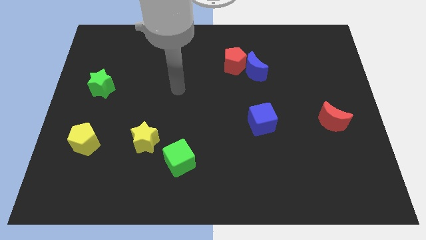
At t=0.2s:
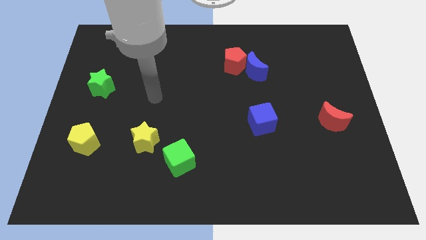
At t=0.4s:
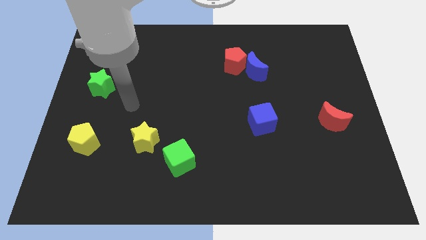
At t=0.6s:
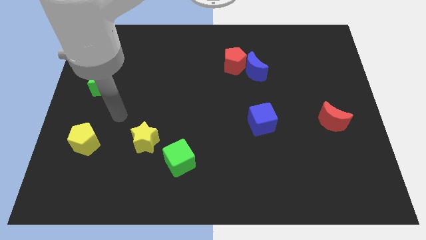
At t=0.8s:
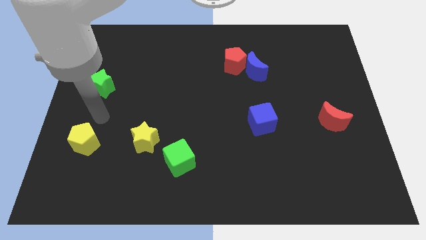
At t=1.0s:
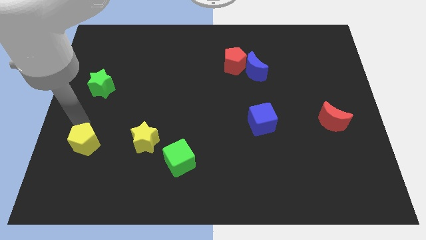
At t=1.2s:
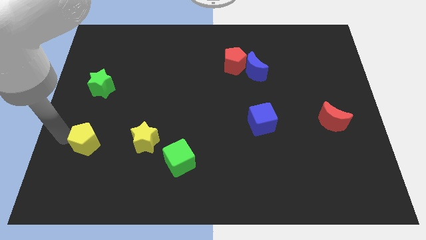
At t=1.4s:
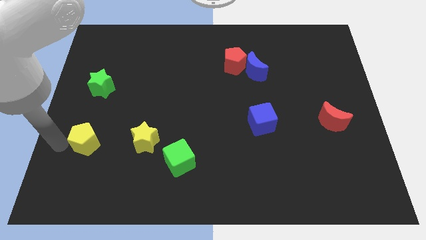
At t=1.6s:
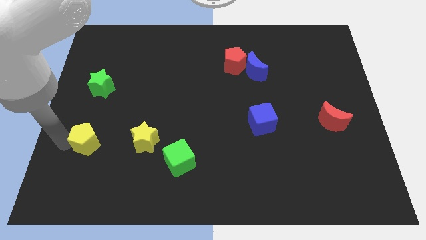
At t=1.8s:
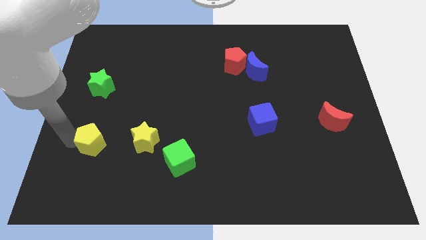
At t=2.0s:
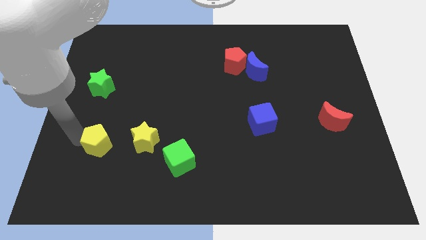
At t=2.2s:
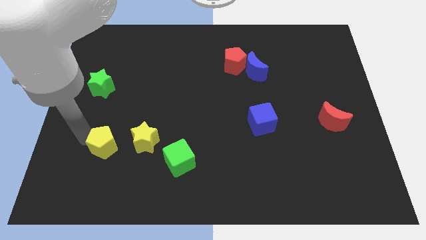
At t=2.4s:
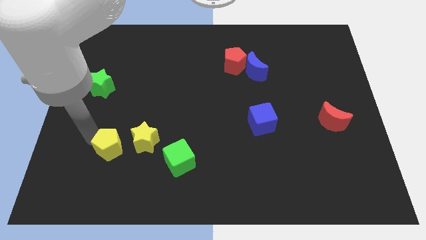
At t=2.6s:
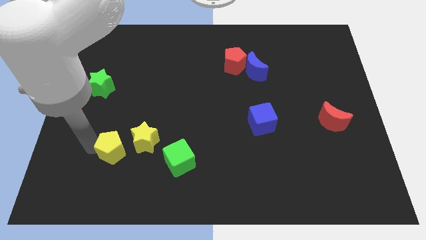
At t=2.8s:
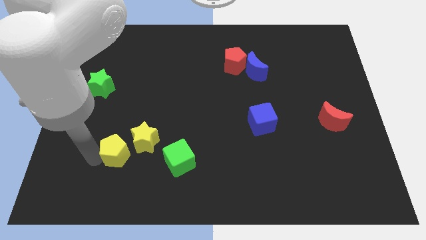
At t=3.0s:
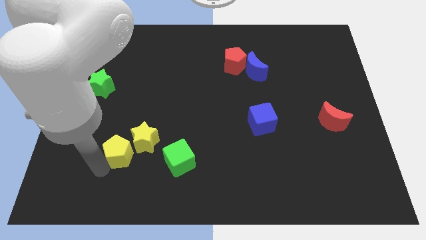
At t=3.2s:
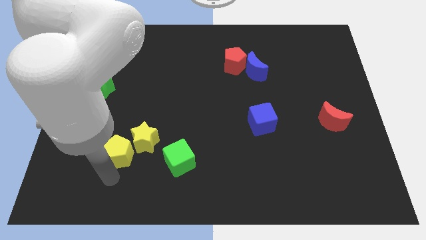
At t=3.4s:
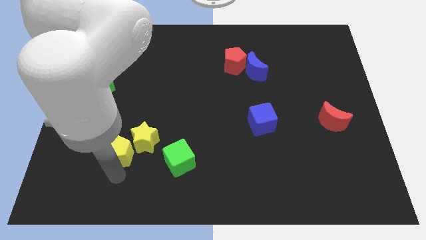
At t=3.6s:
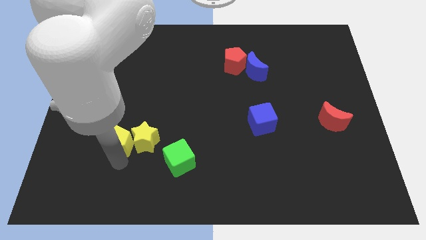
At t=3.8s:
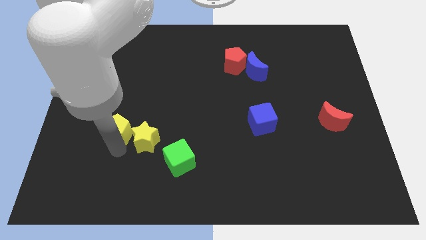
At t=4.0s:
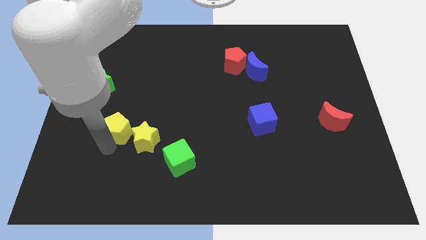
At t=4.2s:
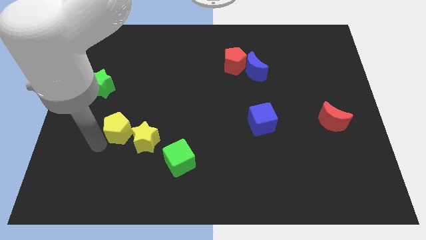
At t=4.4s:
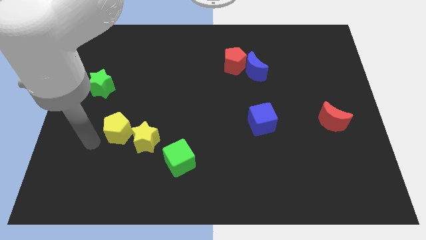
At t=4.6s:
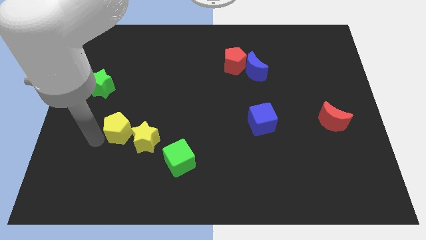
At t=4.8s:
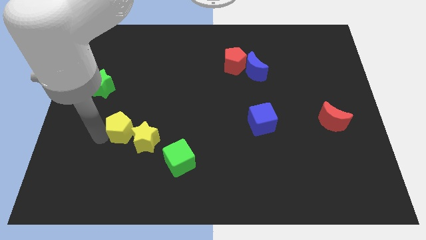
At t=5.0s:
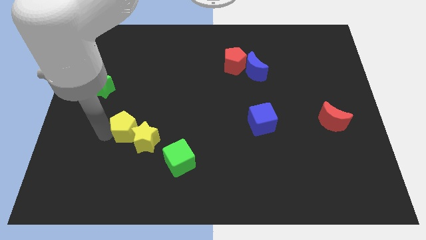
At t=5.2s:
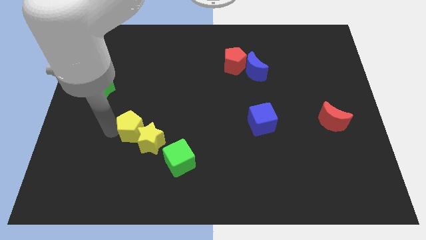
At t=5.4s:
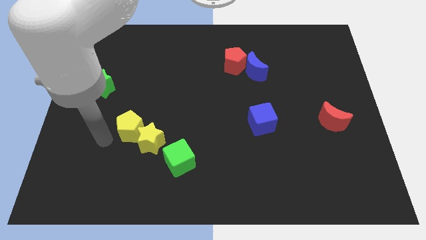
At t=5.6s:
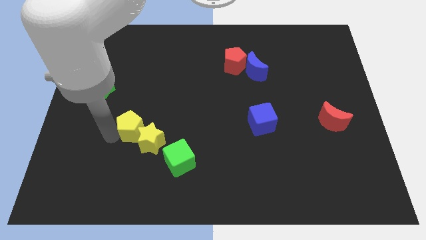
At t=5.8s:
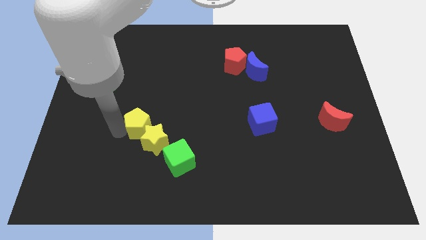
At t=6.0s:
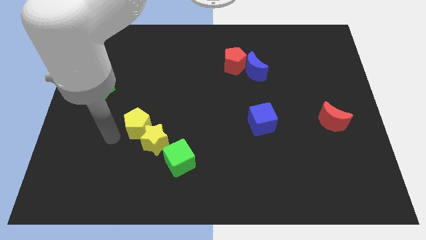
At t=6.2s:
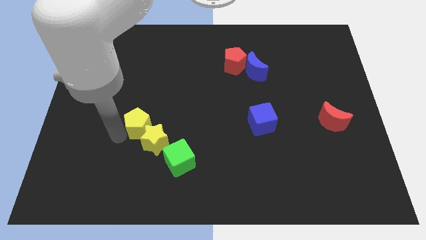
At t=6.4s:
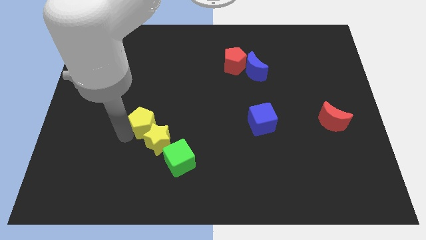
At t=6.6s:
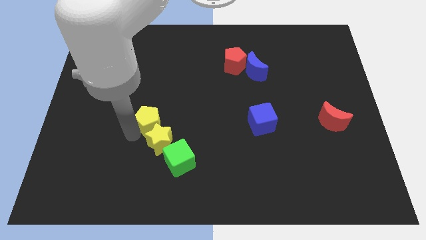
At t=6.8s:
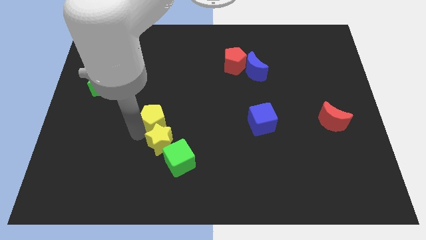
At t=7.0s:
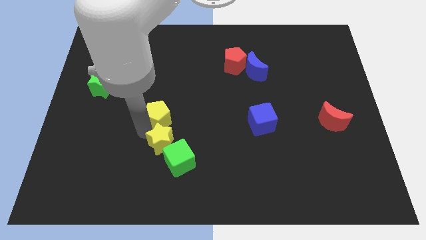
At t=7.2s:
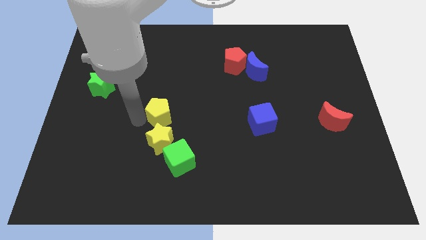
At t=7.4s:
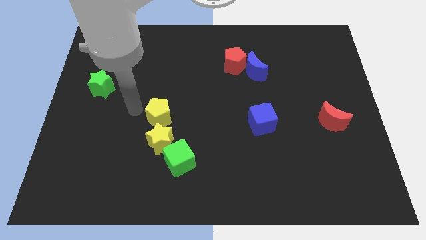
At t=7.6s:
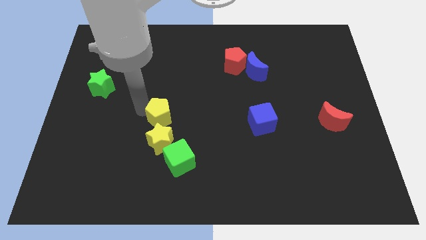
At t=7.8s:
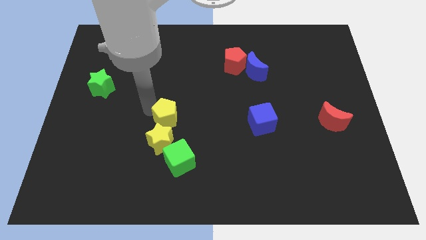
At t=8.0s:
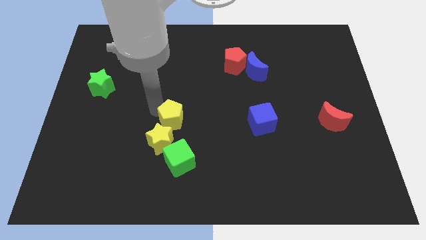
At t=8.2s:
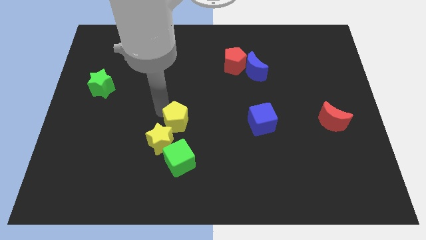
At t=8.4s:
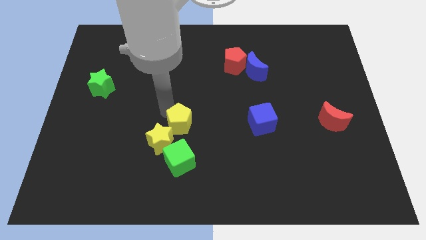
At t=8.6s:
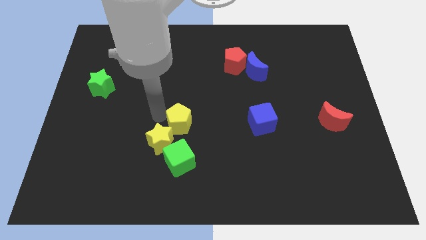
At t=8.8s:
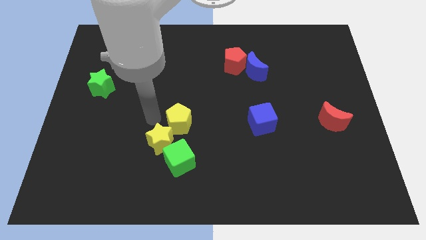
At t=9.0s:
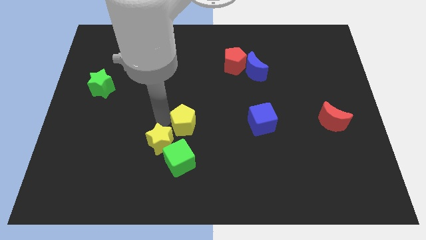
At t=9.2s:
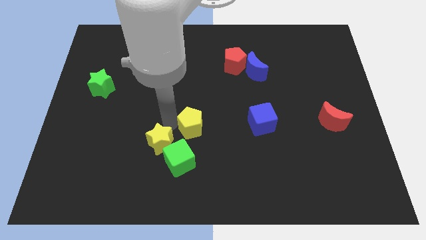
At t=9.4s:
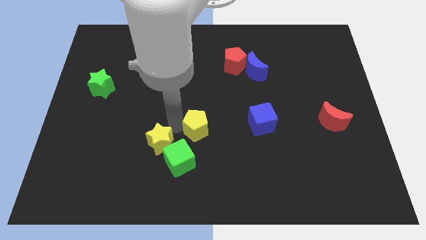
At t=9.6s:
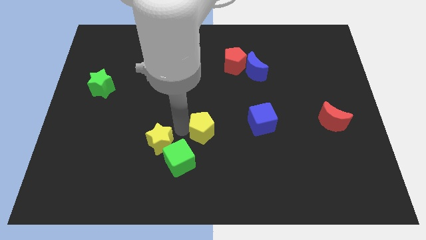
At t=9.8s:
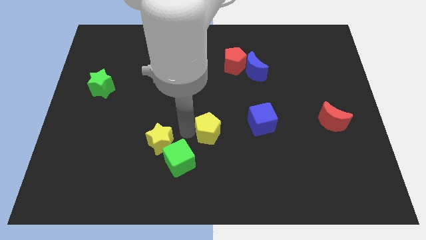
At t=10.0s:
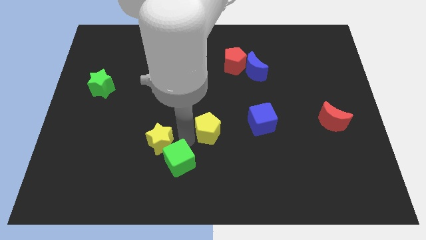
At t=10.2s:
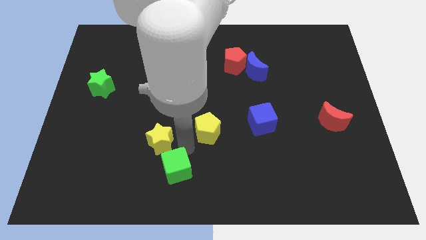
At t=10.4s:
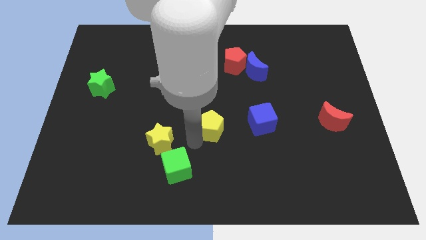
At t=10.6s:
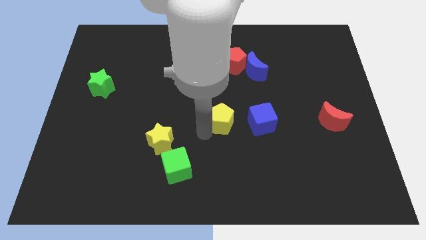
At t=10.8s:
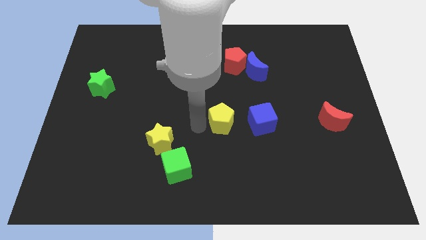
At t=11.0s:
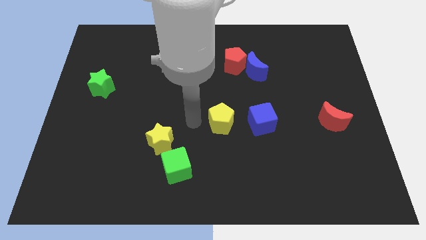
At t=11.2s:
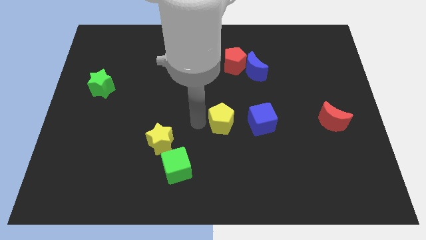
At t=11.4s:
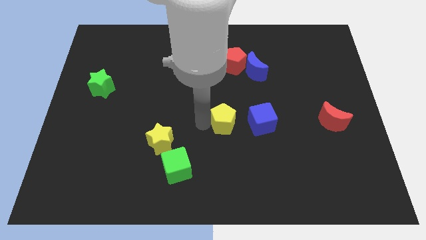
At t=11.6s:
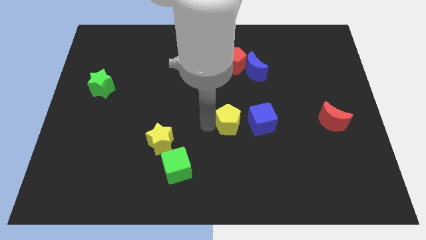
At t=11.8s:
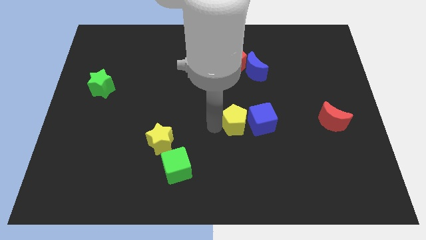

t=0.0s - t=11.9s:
slide the yellow pentagon next to the blue cube
